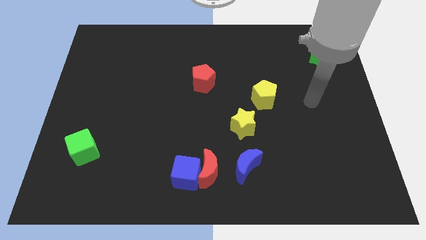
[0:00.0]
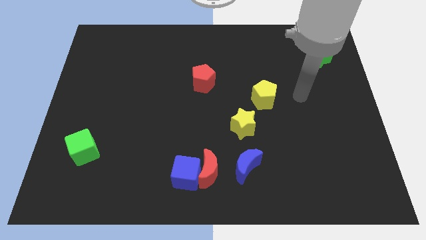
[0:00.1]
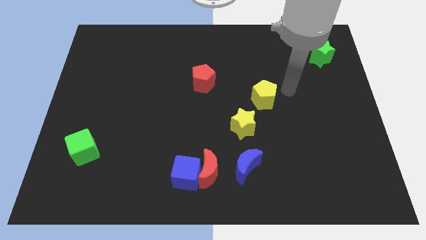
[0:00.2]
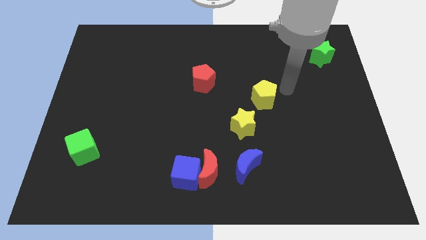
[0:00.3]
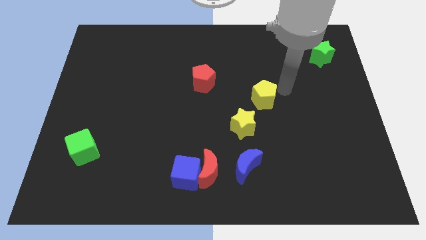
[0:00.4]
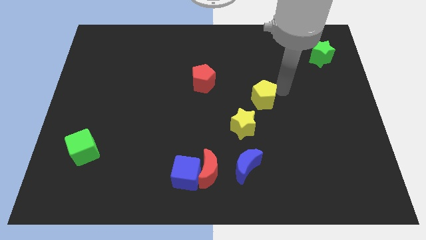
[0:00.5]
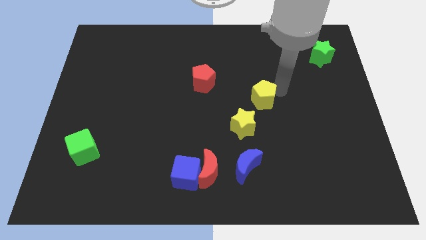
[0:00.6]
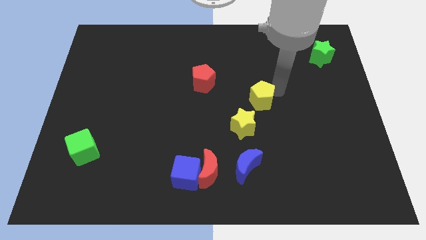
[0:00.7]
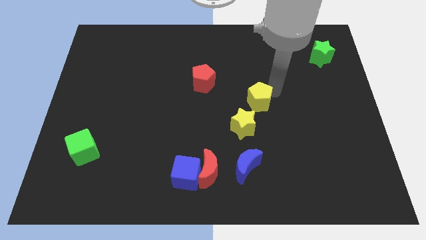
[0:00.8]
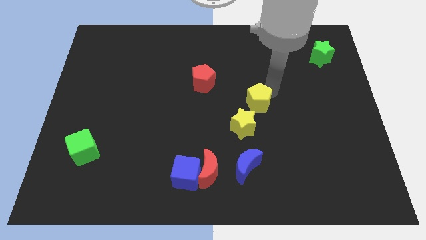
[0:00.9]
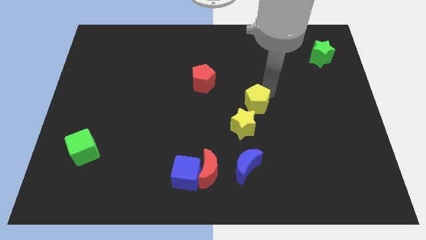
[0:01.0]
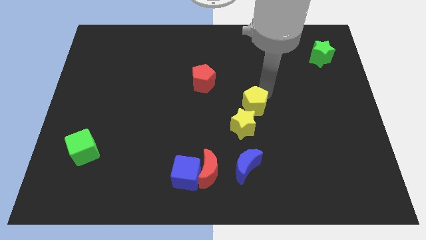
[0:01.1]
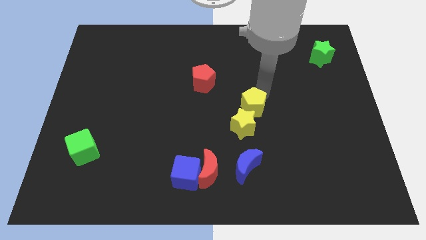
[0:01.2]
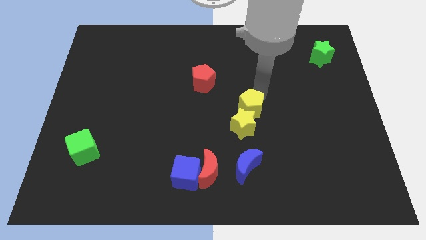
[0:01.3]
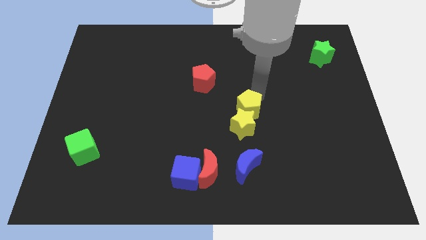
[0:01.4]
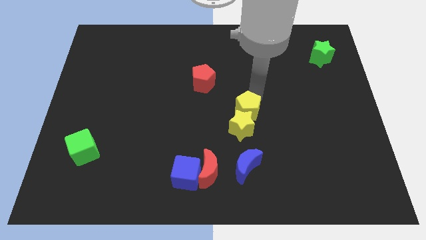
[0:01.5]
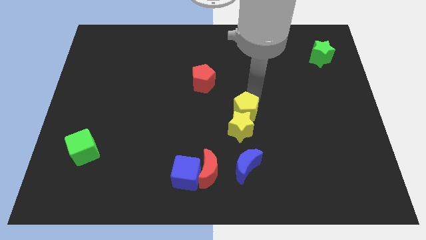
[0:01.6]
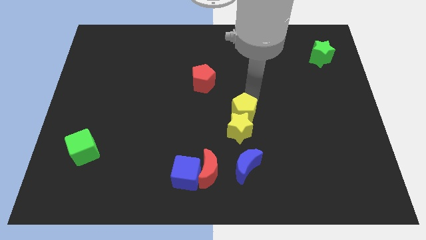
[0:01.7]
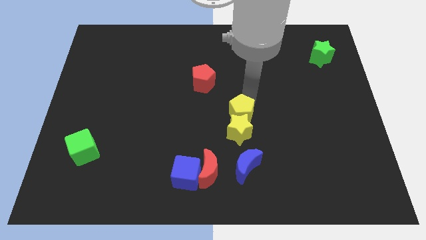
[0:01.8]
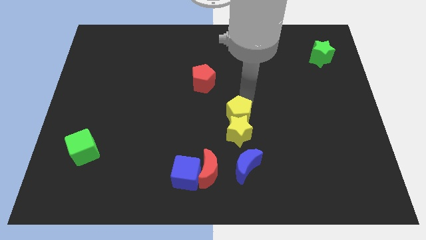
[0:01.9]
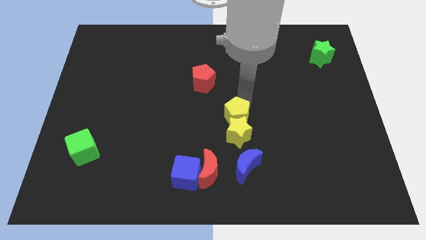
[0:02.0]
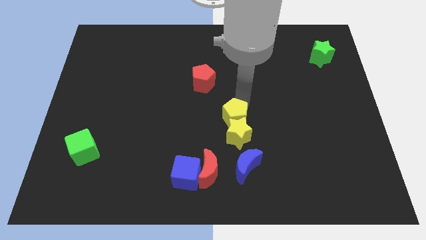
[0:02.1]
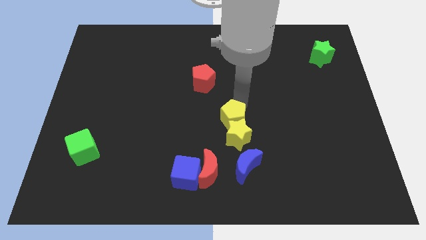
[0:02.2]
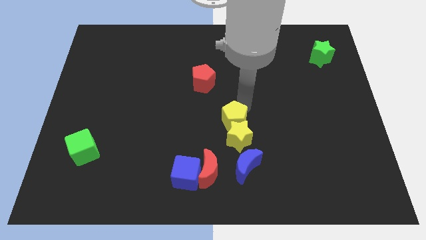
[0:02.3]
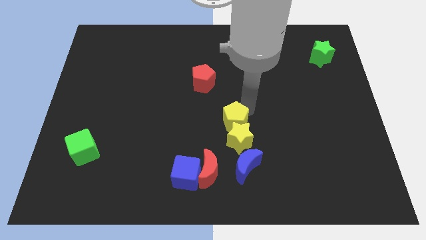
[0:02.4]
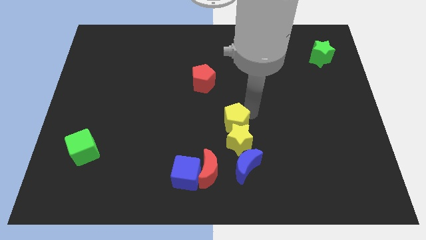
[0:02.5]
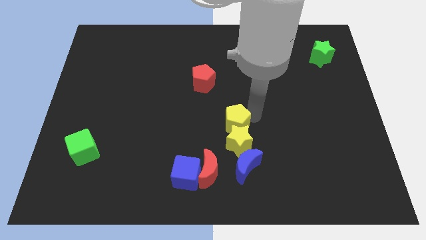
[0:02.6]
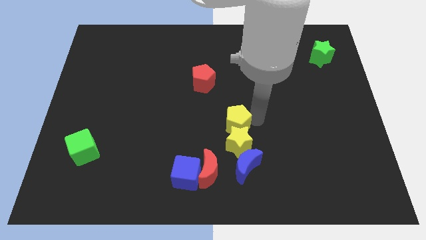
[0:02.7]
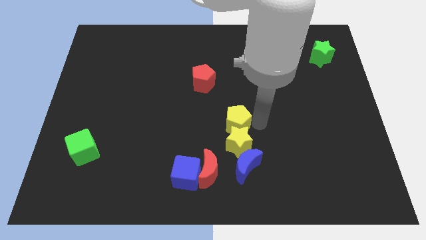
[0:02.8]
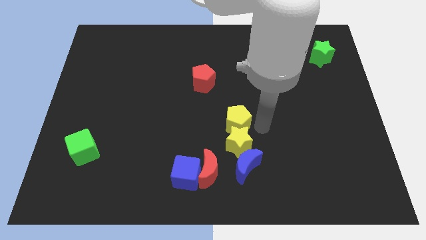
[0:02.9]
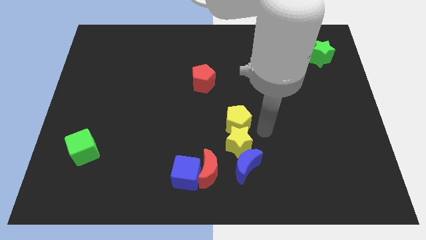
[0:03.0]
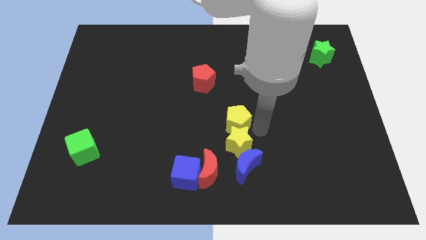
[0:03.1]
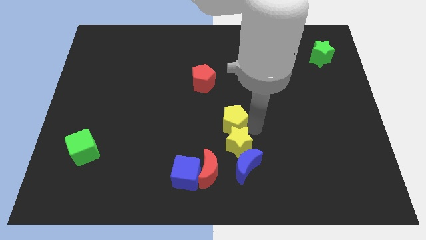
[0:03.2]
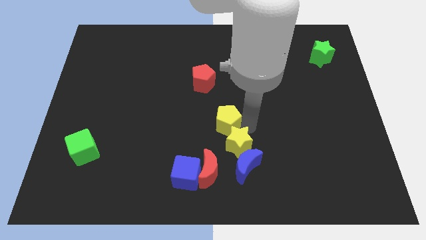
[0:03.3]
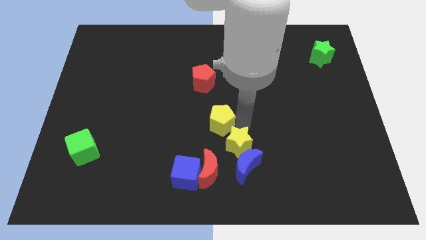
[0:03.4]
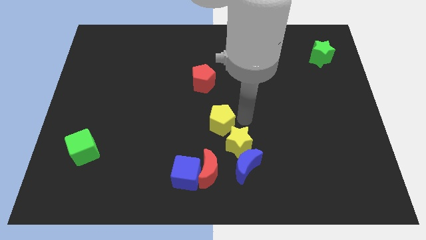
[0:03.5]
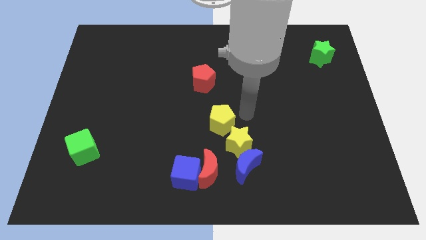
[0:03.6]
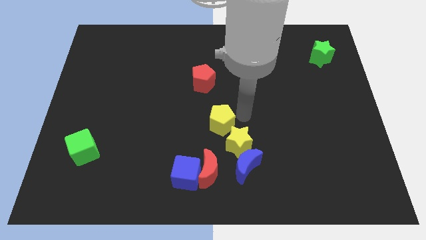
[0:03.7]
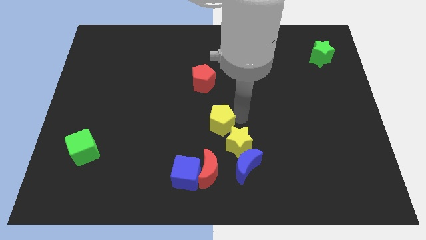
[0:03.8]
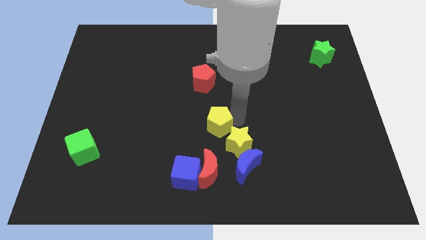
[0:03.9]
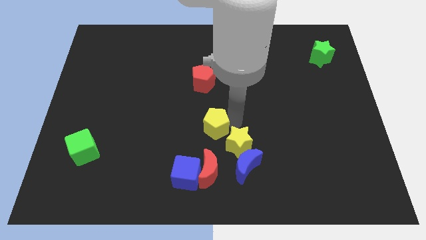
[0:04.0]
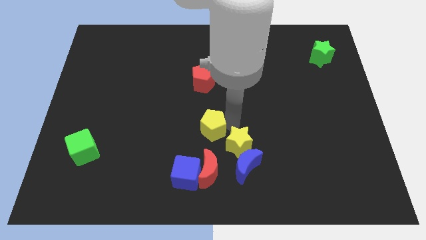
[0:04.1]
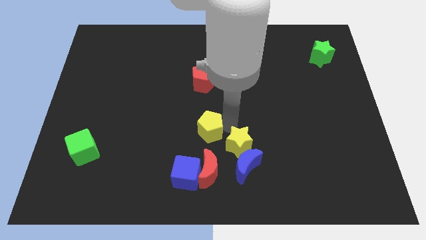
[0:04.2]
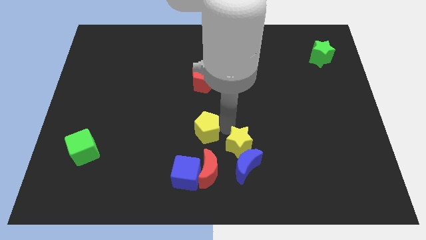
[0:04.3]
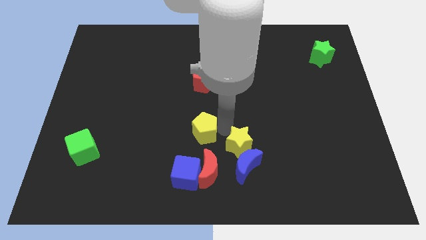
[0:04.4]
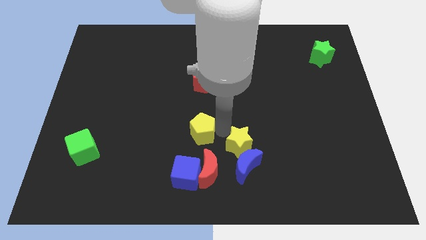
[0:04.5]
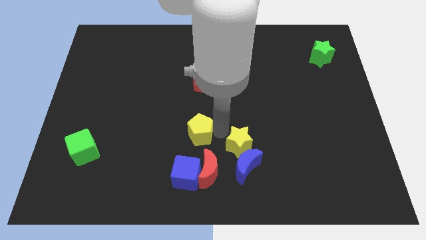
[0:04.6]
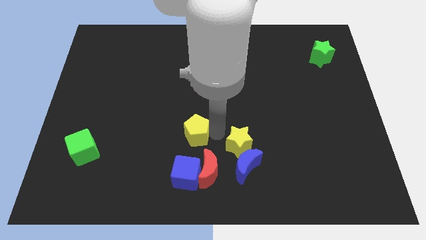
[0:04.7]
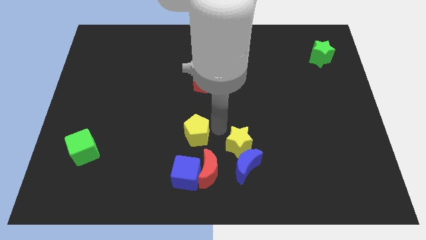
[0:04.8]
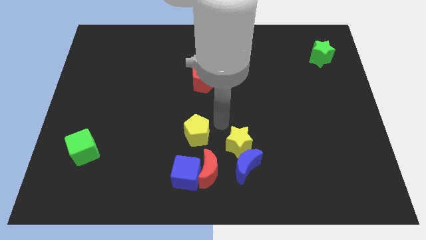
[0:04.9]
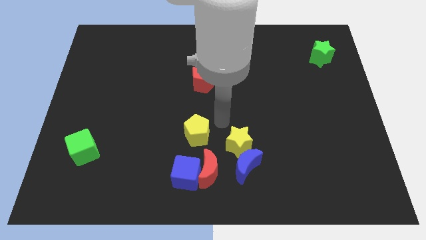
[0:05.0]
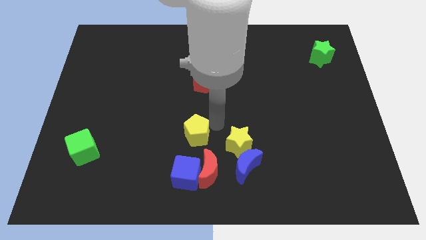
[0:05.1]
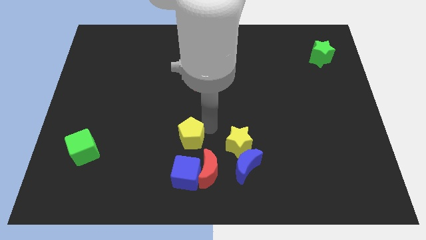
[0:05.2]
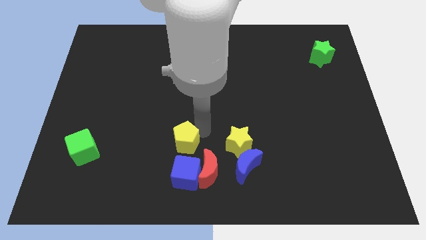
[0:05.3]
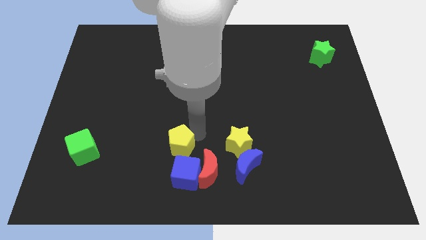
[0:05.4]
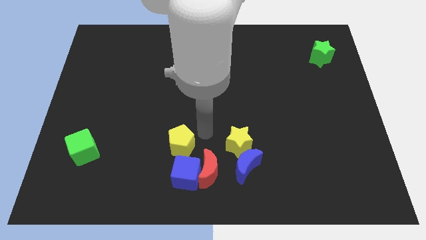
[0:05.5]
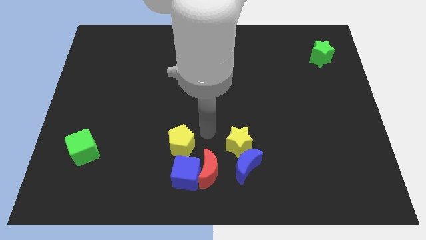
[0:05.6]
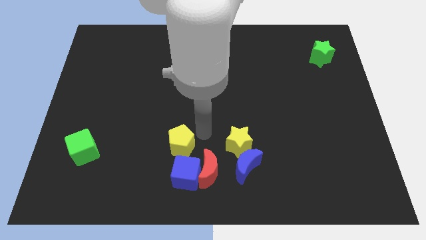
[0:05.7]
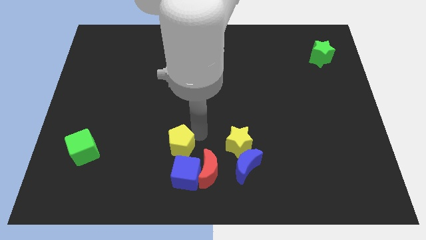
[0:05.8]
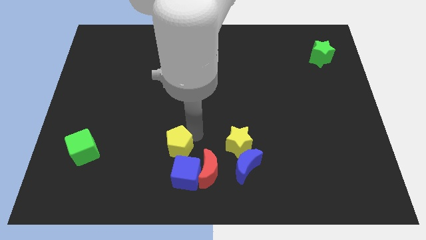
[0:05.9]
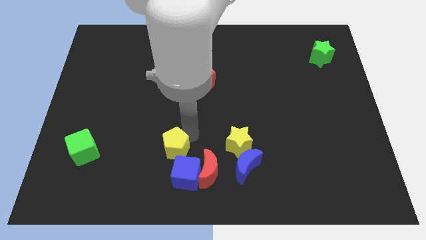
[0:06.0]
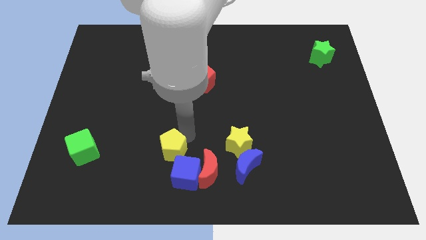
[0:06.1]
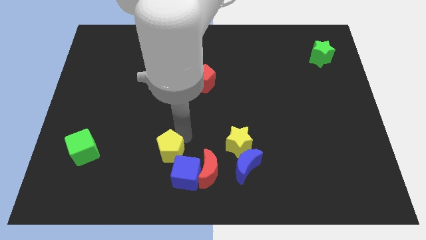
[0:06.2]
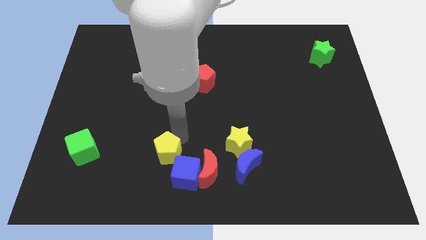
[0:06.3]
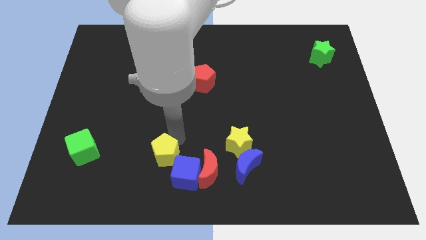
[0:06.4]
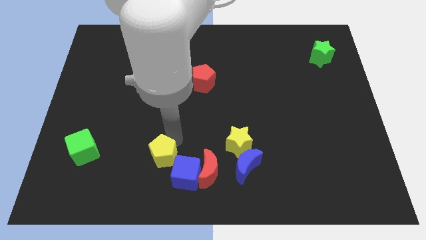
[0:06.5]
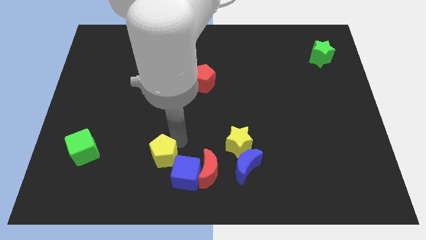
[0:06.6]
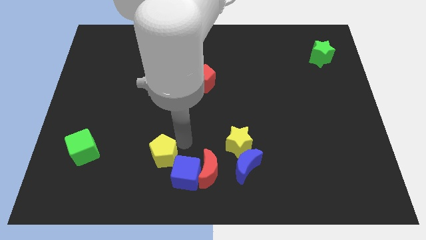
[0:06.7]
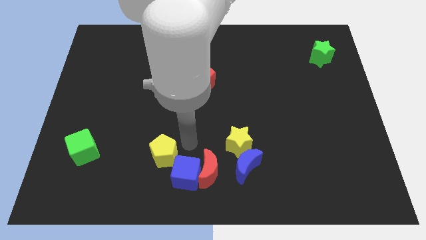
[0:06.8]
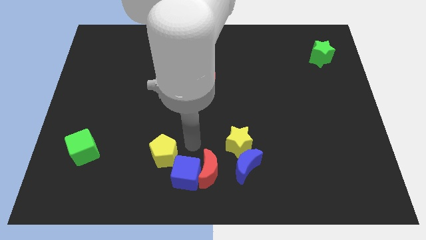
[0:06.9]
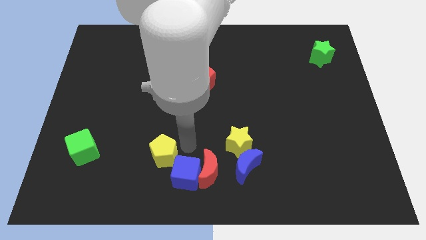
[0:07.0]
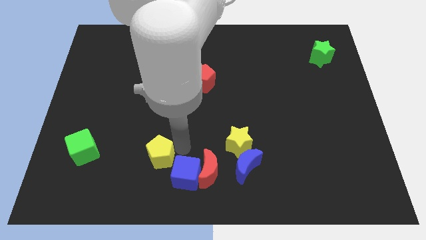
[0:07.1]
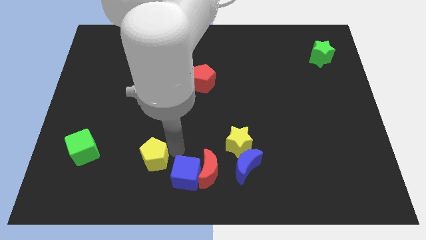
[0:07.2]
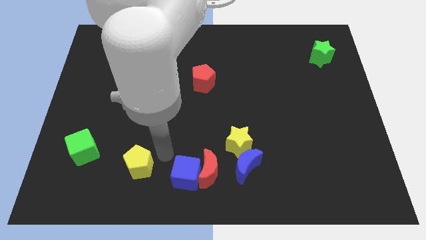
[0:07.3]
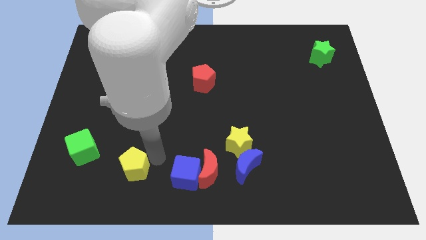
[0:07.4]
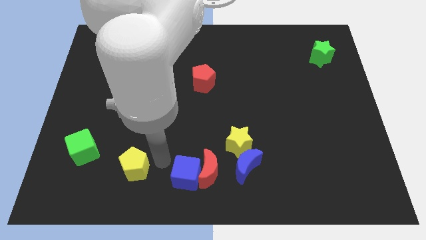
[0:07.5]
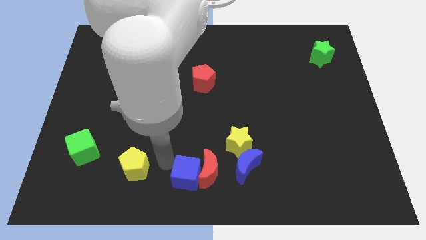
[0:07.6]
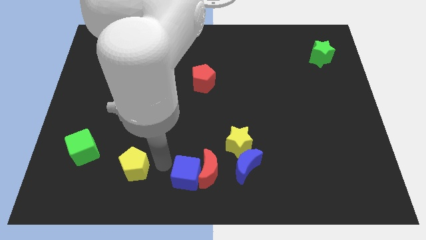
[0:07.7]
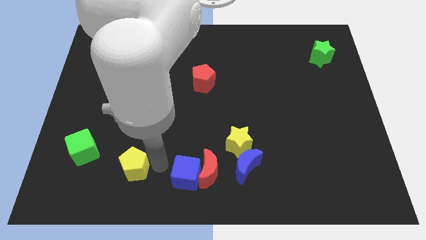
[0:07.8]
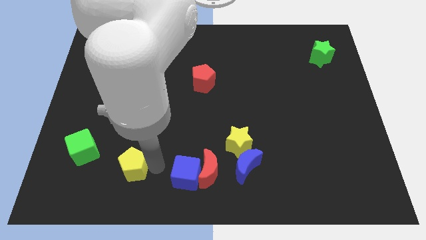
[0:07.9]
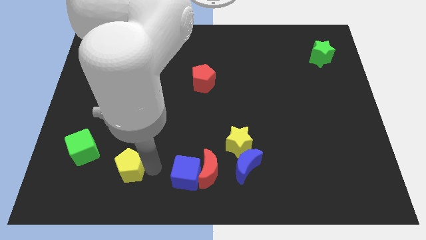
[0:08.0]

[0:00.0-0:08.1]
slide the yellow pentagon to the bottom right side of the green cube
